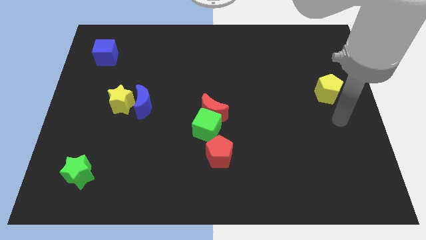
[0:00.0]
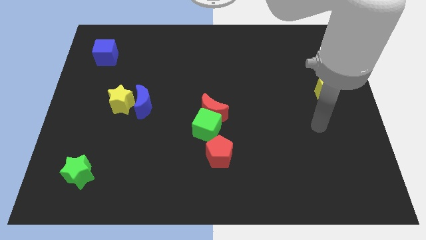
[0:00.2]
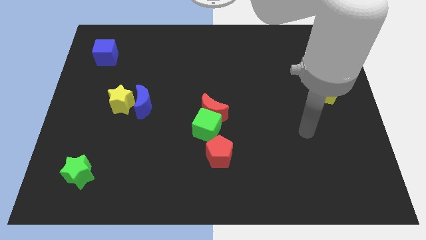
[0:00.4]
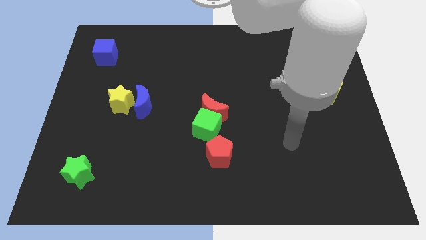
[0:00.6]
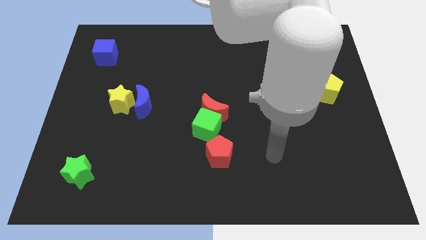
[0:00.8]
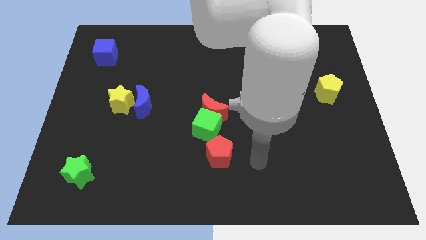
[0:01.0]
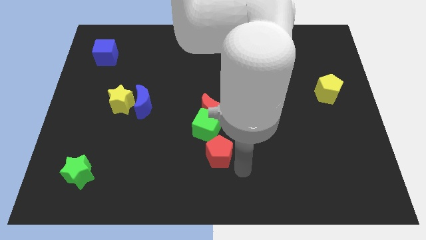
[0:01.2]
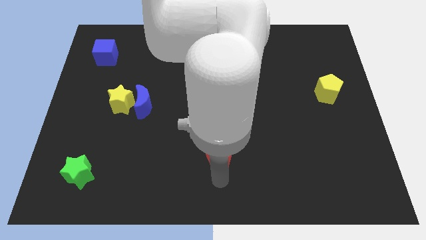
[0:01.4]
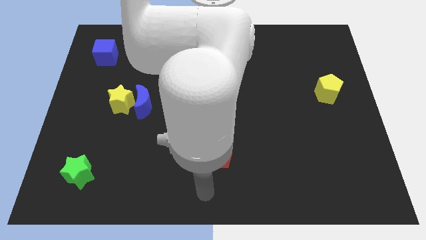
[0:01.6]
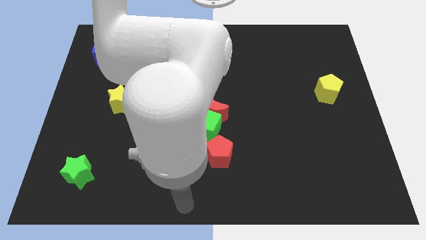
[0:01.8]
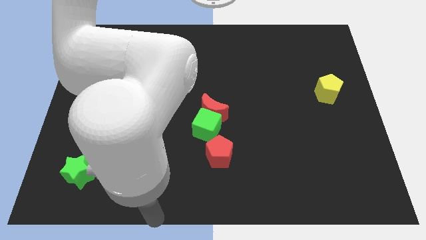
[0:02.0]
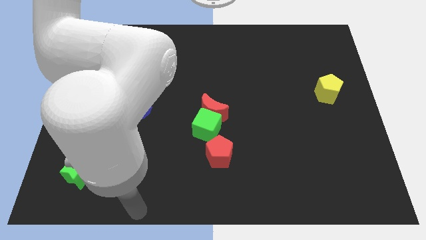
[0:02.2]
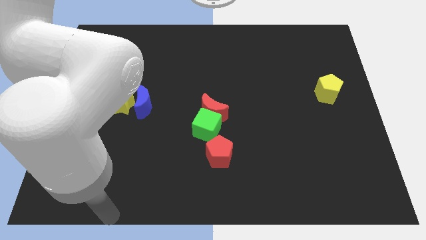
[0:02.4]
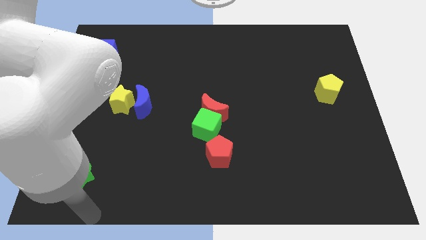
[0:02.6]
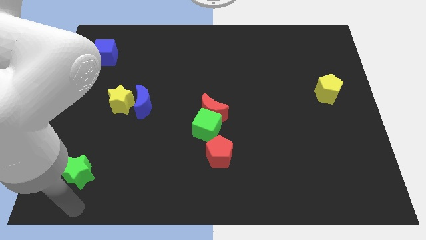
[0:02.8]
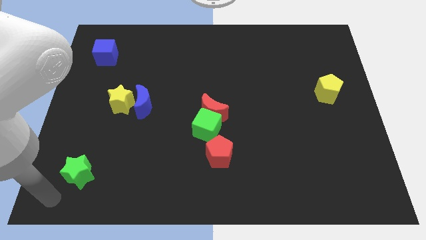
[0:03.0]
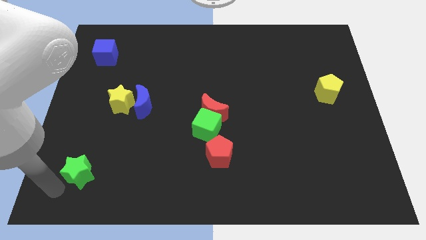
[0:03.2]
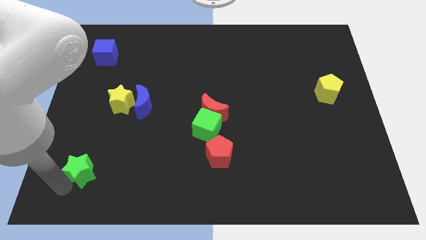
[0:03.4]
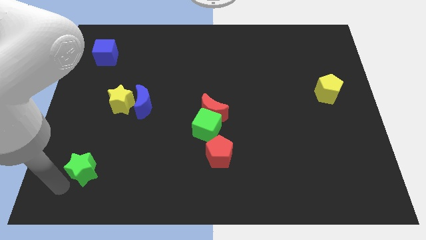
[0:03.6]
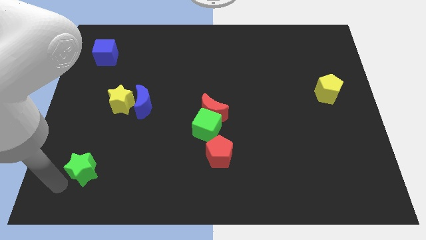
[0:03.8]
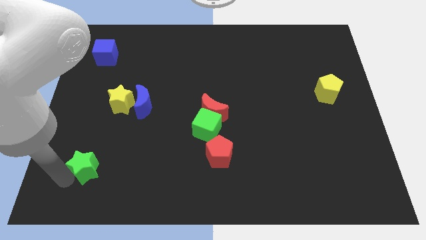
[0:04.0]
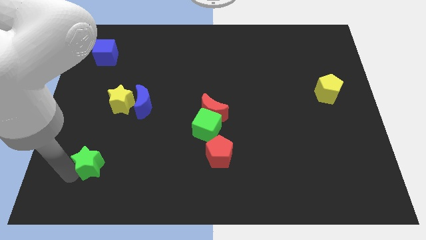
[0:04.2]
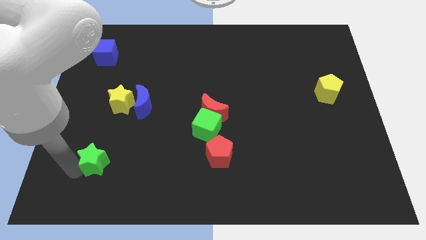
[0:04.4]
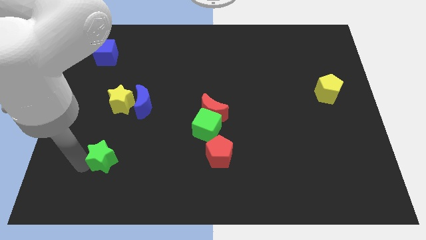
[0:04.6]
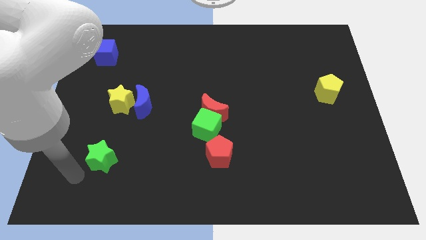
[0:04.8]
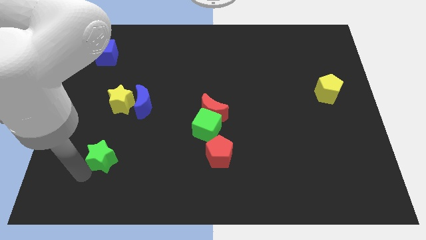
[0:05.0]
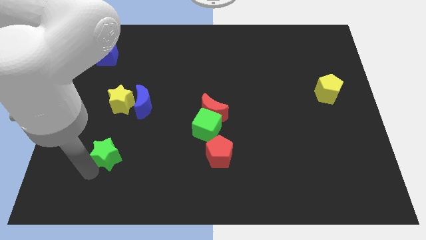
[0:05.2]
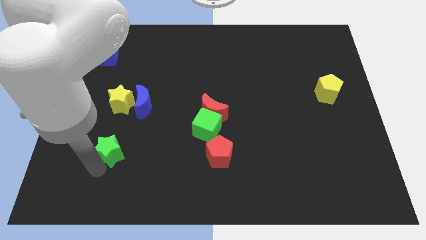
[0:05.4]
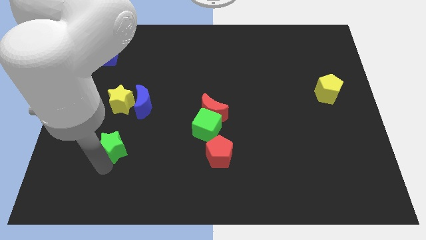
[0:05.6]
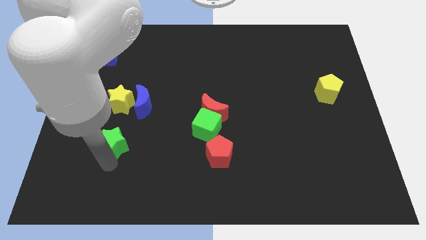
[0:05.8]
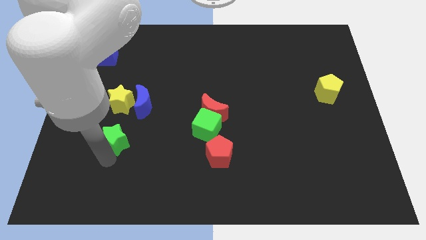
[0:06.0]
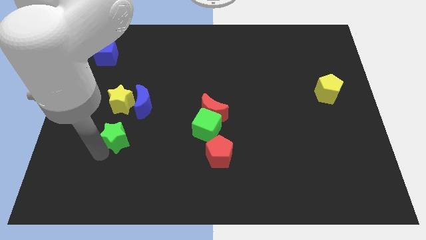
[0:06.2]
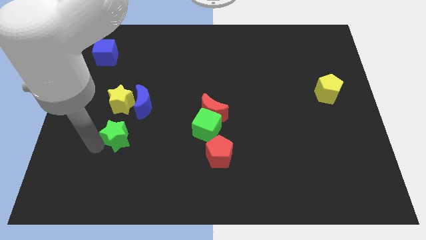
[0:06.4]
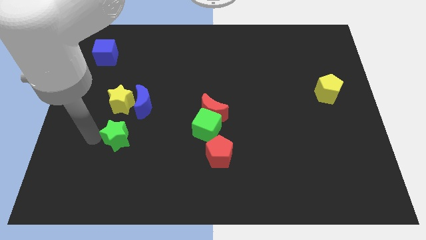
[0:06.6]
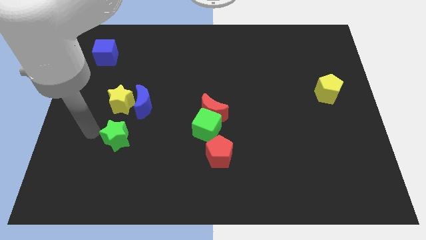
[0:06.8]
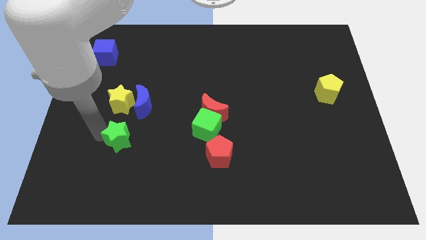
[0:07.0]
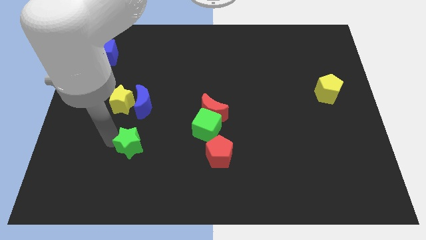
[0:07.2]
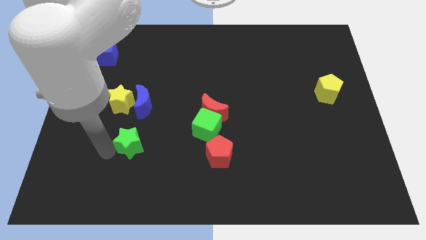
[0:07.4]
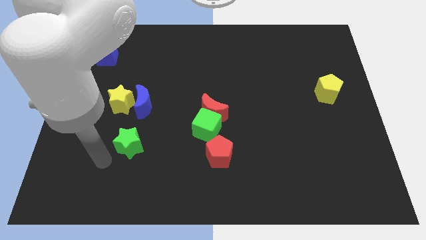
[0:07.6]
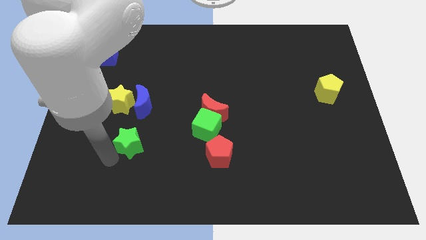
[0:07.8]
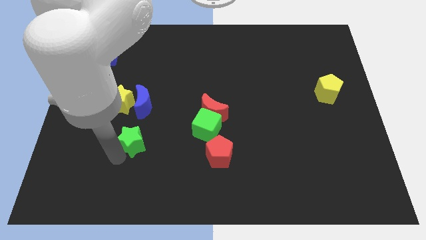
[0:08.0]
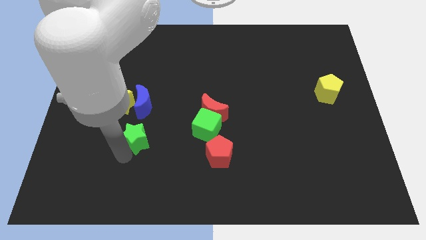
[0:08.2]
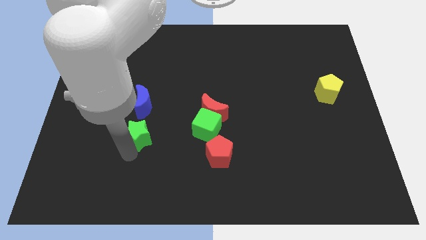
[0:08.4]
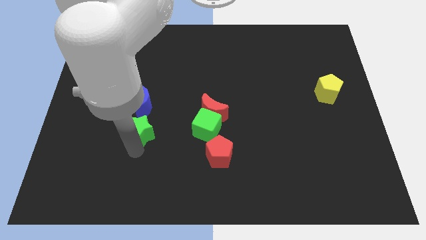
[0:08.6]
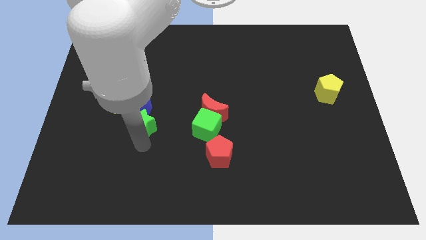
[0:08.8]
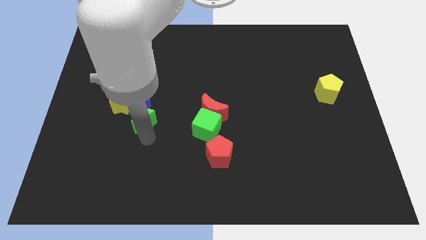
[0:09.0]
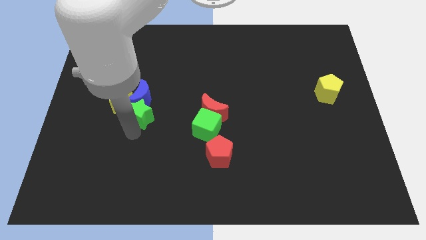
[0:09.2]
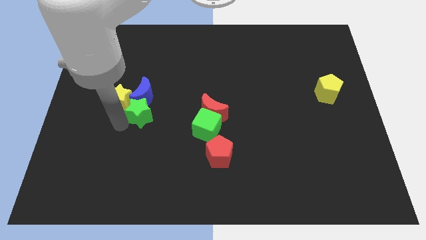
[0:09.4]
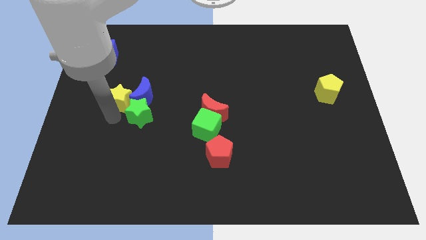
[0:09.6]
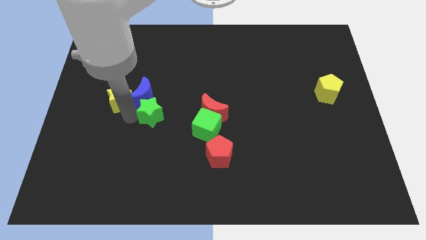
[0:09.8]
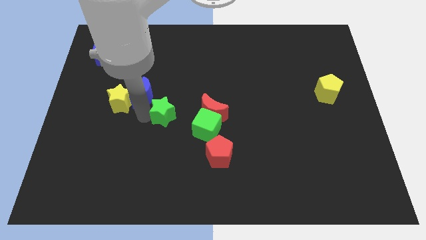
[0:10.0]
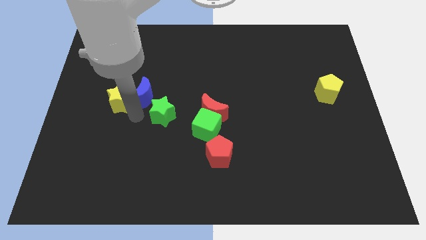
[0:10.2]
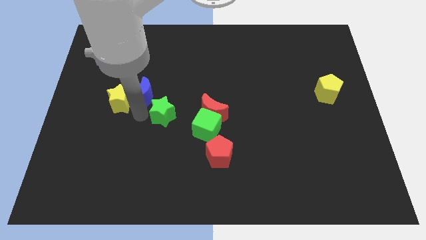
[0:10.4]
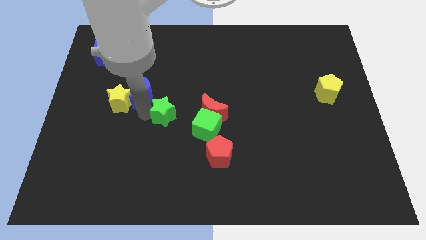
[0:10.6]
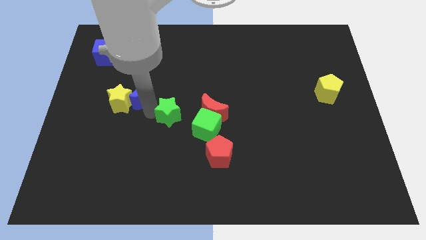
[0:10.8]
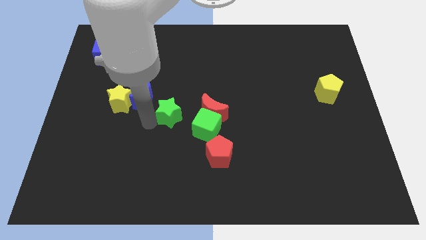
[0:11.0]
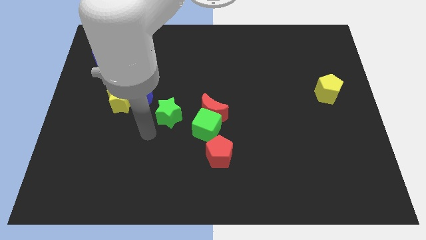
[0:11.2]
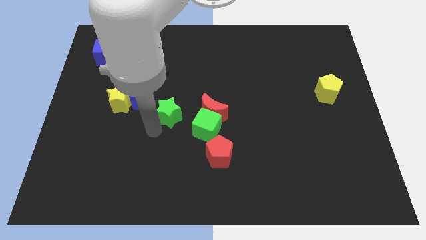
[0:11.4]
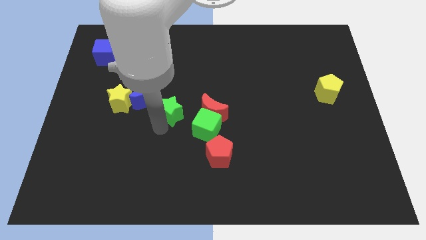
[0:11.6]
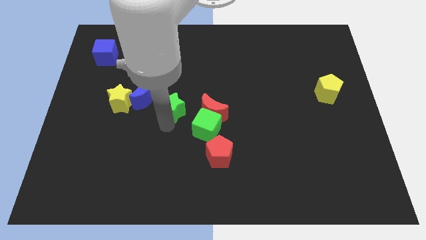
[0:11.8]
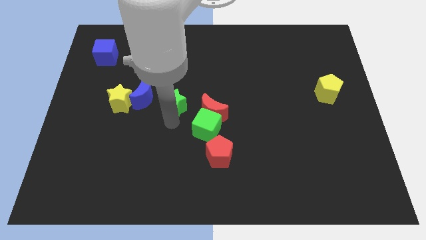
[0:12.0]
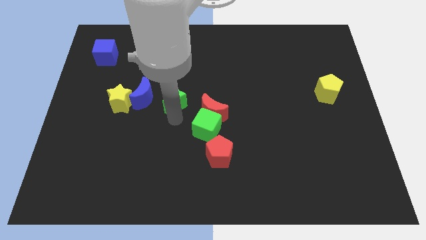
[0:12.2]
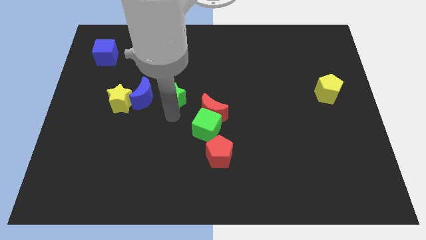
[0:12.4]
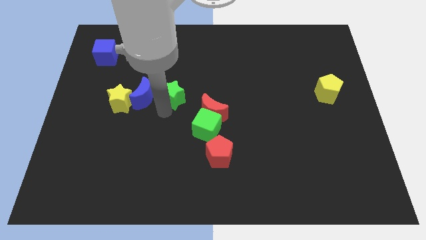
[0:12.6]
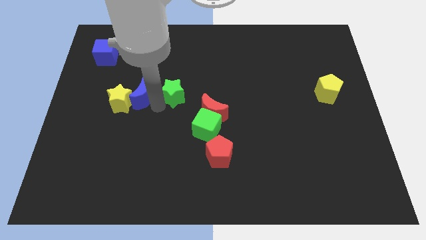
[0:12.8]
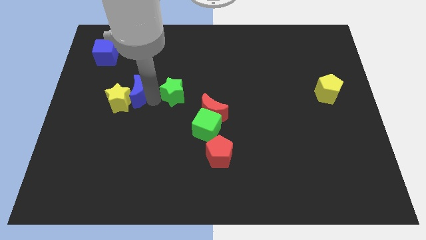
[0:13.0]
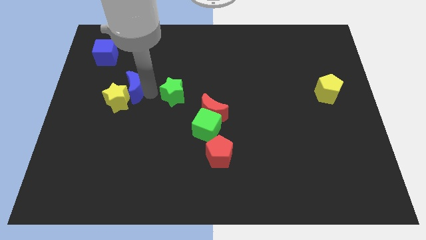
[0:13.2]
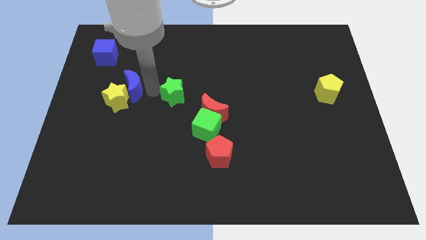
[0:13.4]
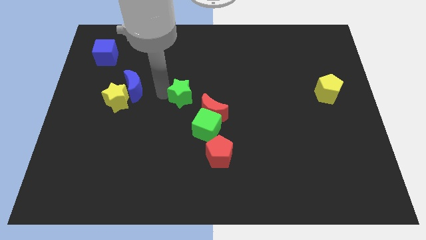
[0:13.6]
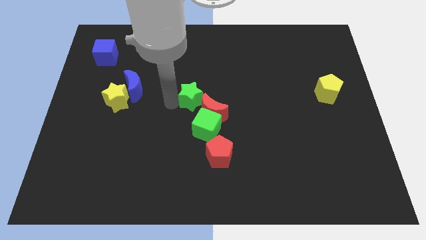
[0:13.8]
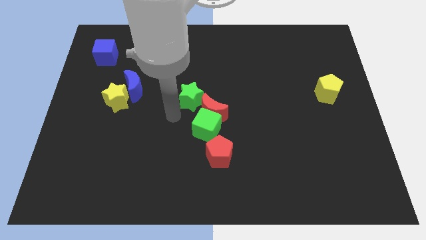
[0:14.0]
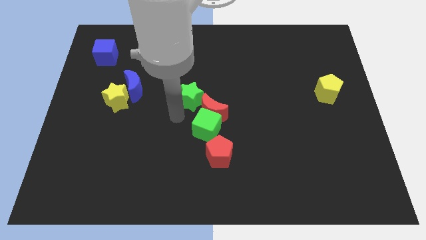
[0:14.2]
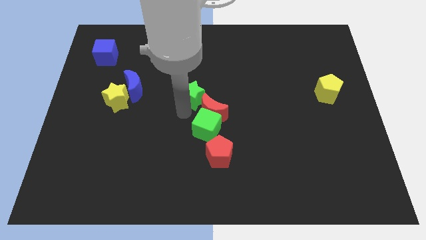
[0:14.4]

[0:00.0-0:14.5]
push the green star to the top side of the red moon
